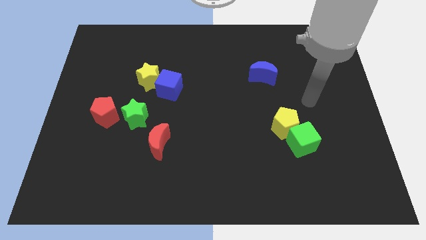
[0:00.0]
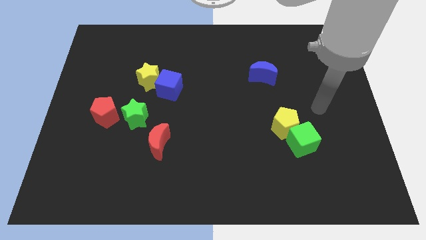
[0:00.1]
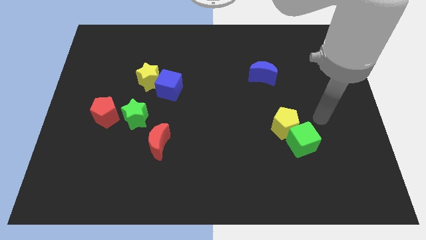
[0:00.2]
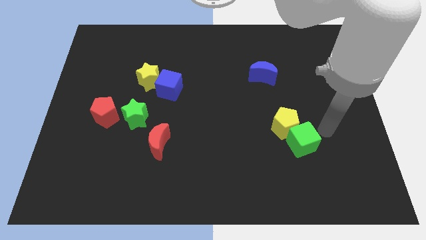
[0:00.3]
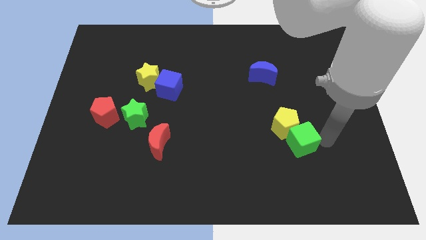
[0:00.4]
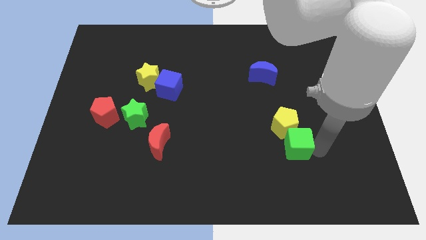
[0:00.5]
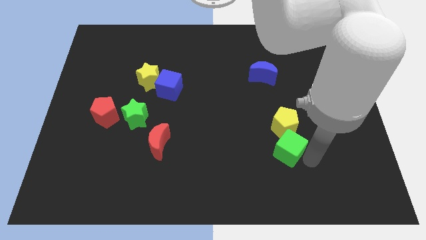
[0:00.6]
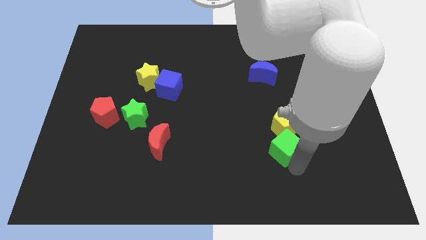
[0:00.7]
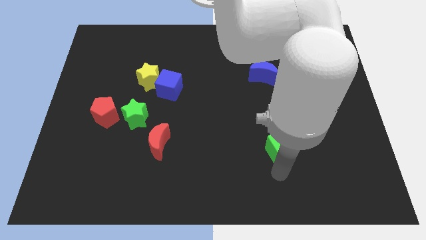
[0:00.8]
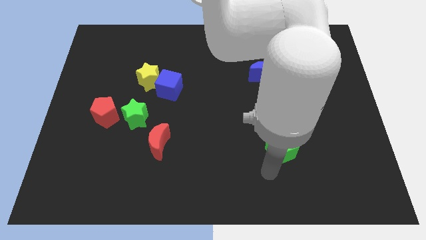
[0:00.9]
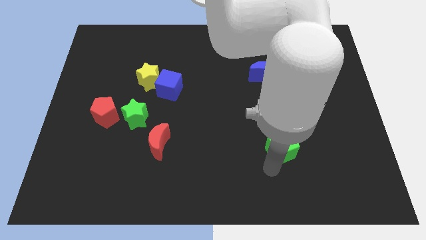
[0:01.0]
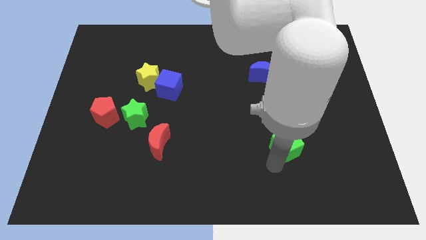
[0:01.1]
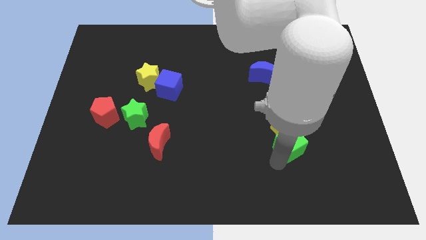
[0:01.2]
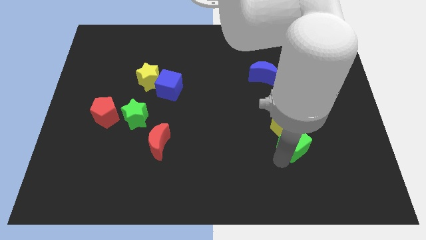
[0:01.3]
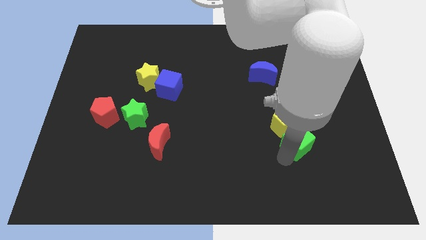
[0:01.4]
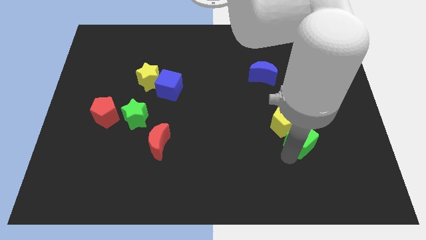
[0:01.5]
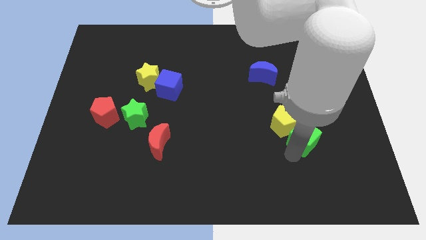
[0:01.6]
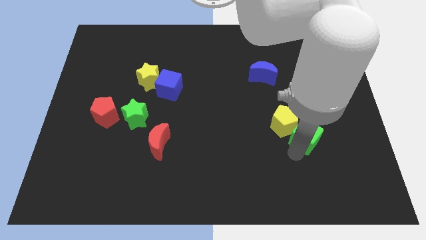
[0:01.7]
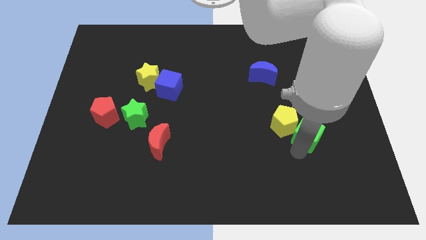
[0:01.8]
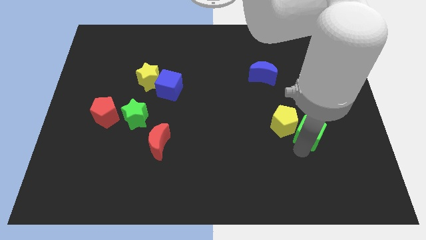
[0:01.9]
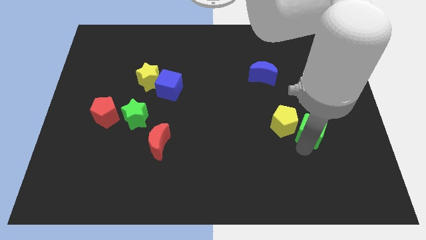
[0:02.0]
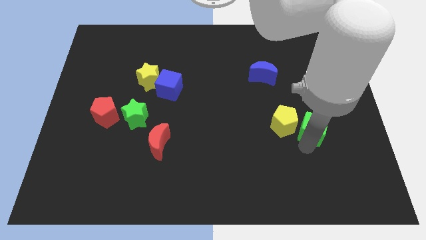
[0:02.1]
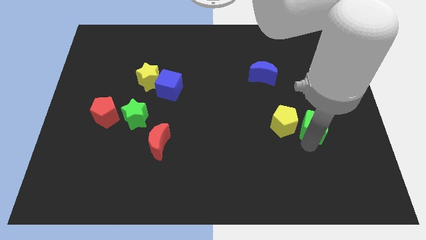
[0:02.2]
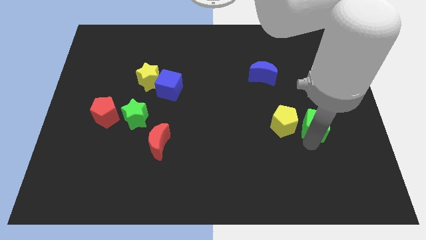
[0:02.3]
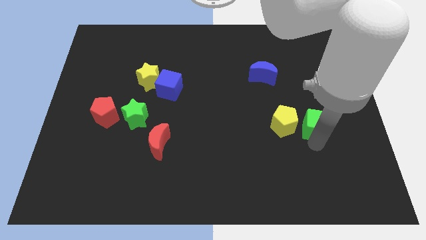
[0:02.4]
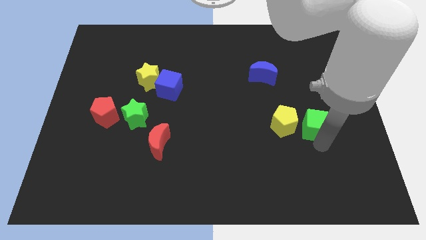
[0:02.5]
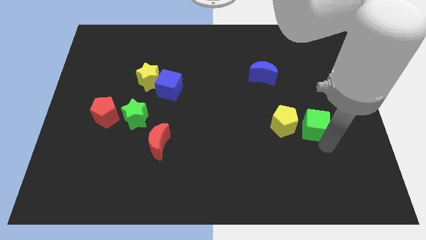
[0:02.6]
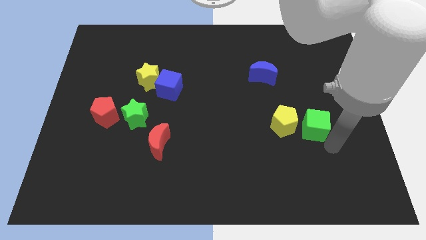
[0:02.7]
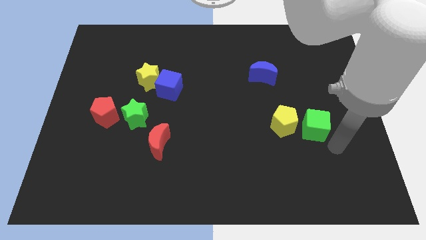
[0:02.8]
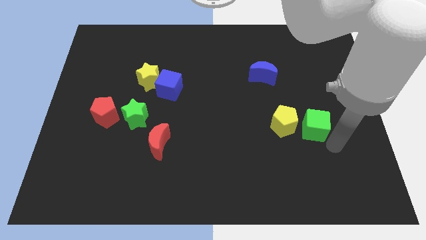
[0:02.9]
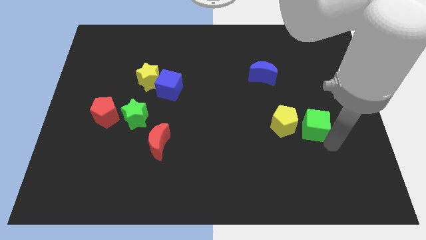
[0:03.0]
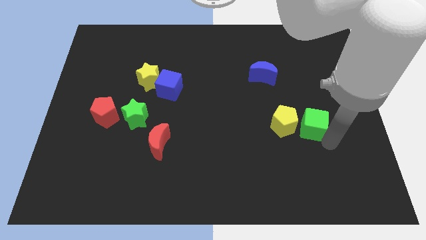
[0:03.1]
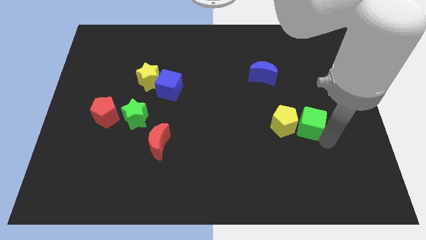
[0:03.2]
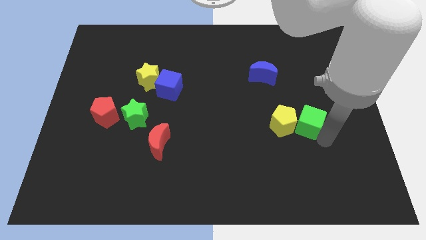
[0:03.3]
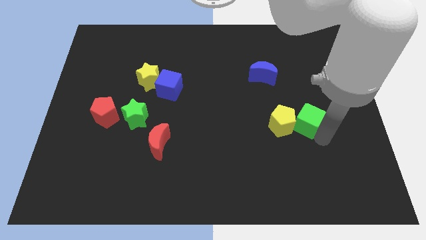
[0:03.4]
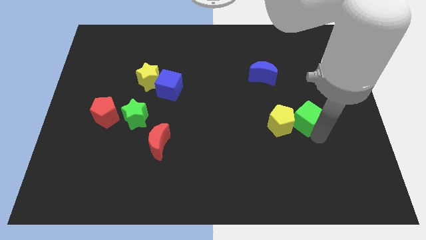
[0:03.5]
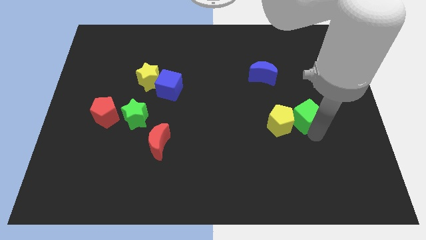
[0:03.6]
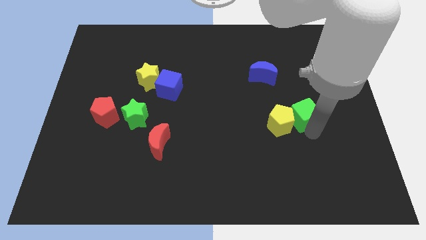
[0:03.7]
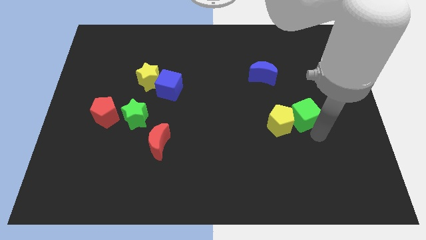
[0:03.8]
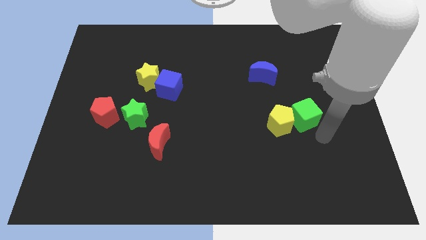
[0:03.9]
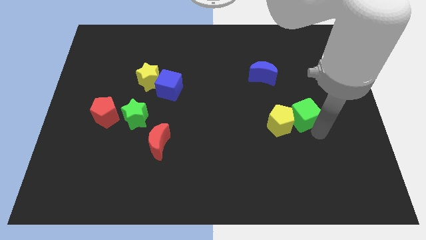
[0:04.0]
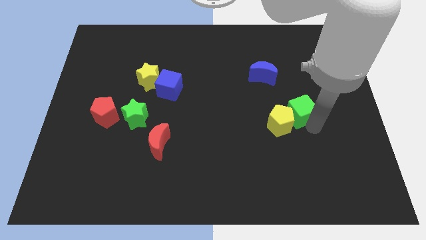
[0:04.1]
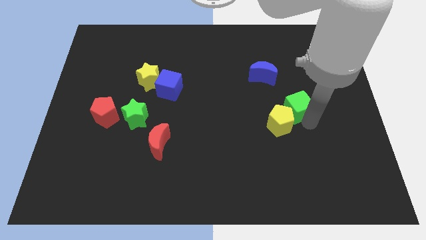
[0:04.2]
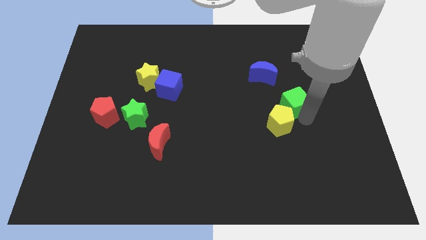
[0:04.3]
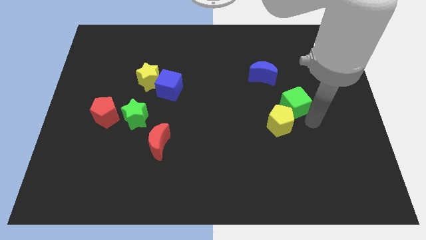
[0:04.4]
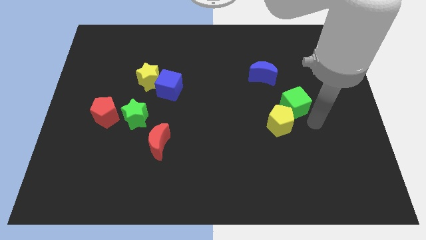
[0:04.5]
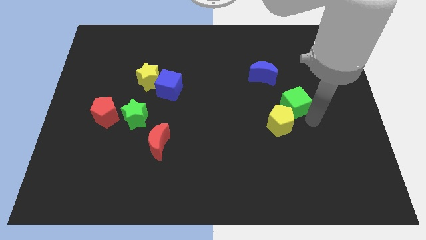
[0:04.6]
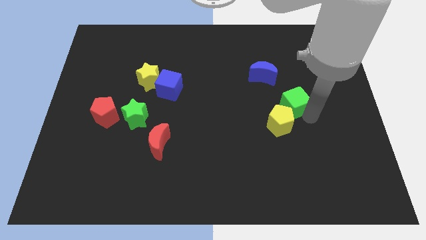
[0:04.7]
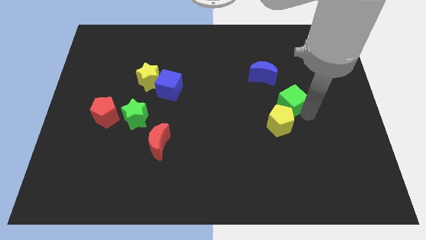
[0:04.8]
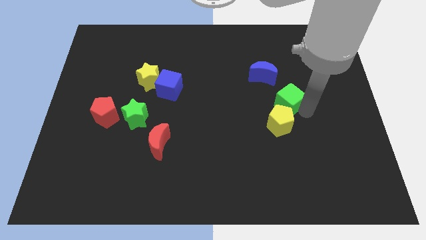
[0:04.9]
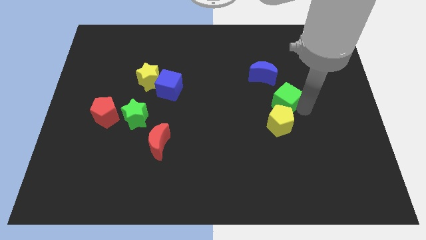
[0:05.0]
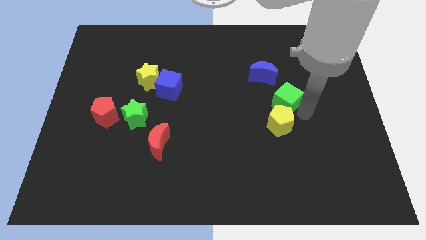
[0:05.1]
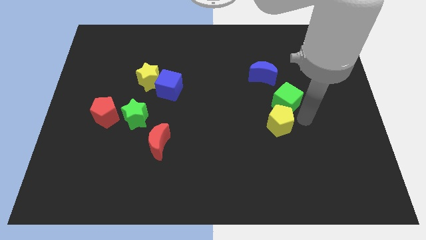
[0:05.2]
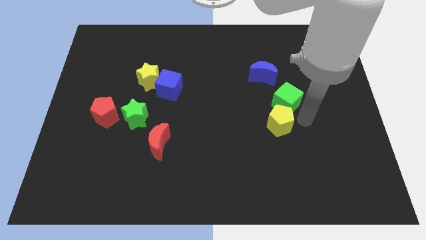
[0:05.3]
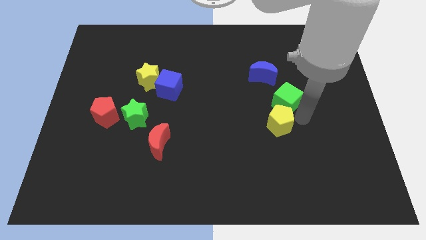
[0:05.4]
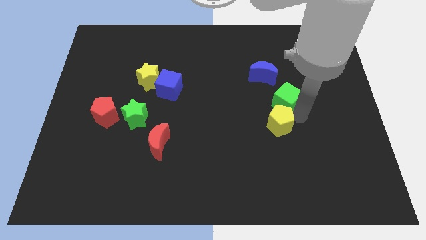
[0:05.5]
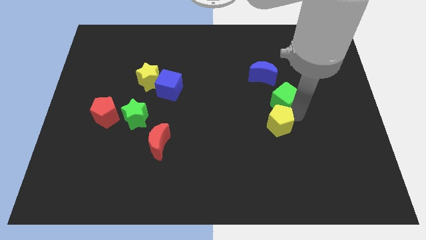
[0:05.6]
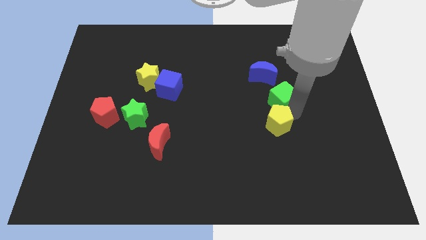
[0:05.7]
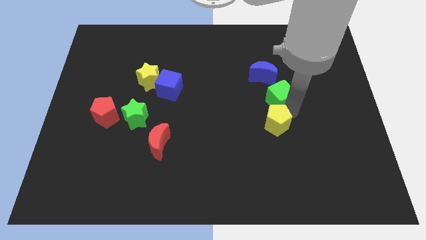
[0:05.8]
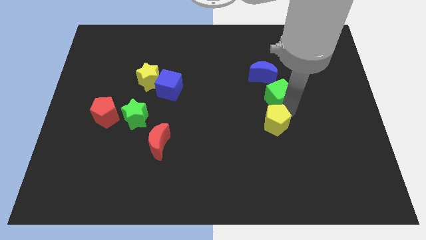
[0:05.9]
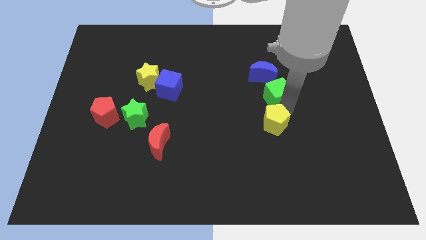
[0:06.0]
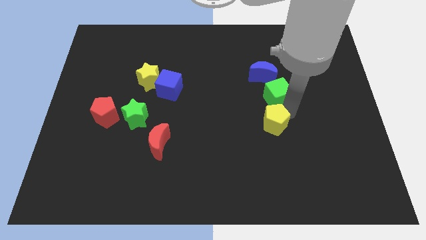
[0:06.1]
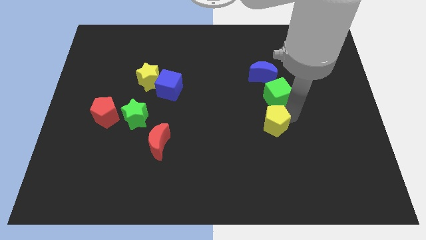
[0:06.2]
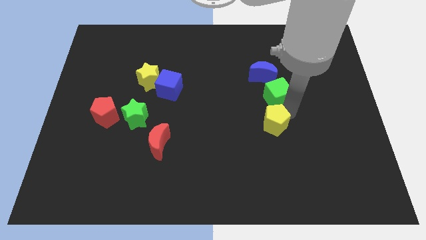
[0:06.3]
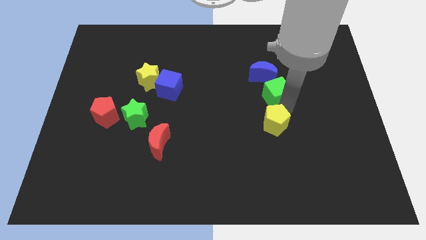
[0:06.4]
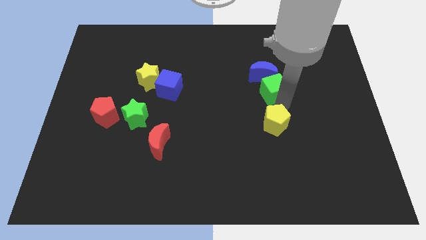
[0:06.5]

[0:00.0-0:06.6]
slide the green cube next to the blue moon

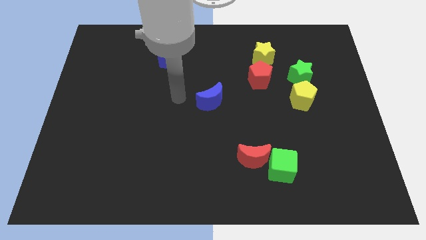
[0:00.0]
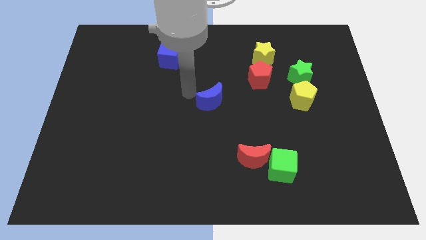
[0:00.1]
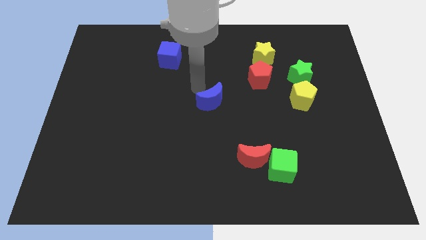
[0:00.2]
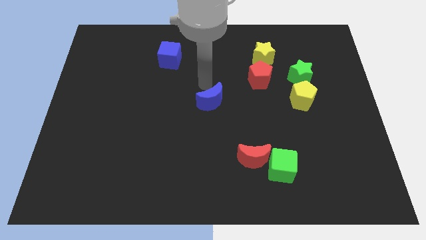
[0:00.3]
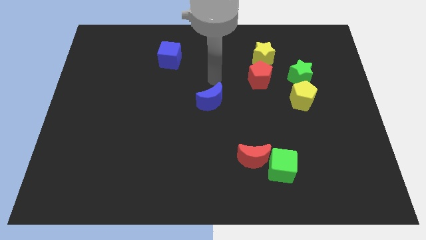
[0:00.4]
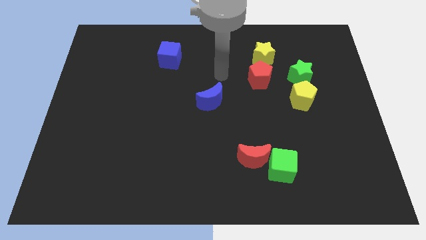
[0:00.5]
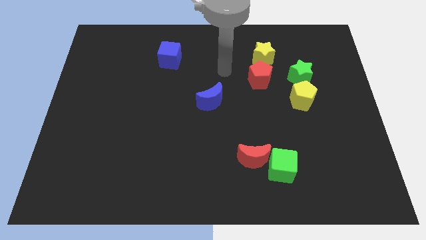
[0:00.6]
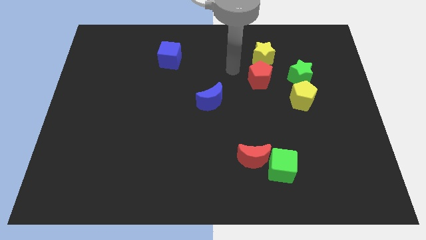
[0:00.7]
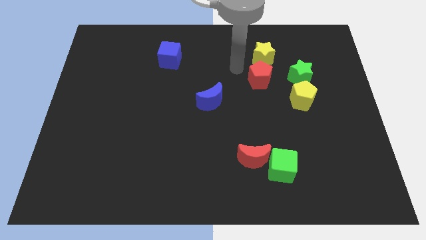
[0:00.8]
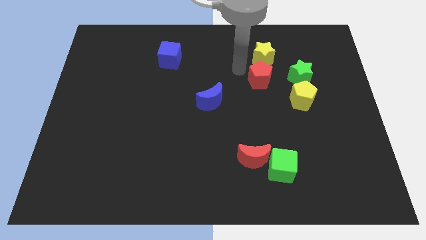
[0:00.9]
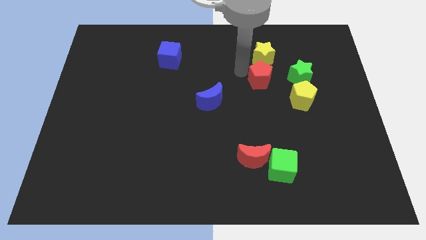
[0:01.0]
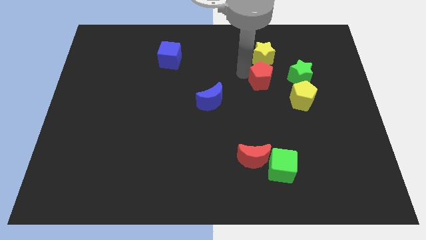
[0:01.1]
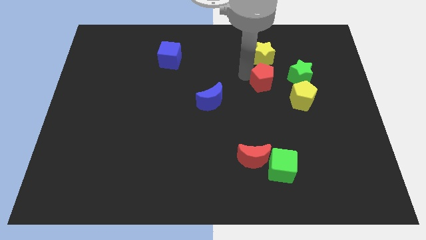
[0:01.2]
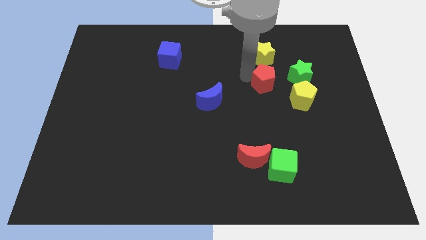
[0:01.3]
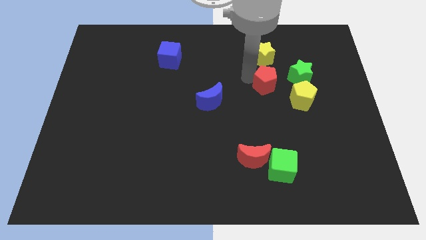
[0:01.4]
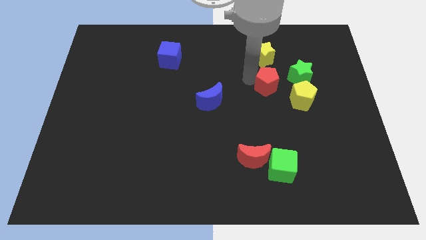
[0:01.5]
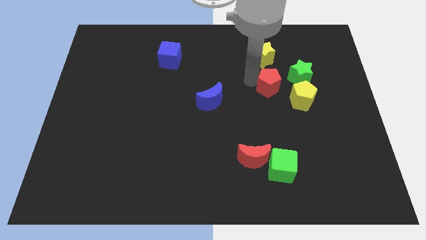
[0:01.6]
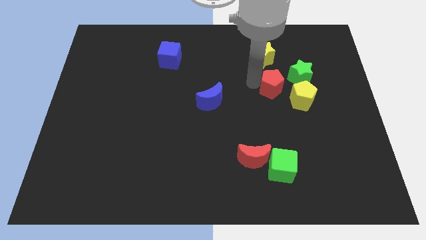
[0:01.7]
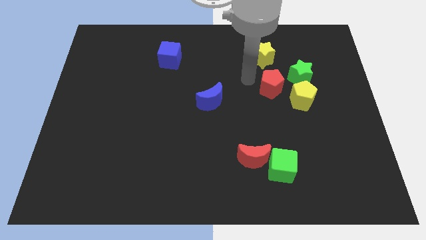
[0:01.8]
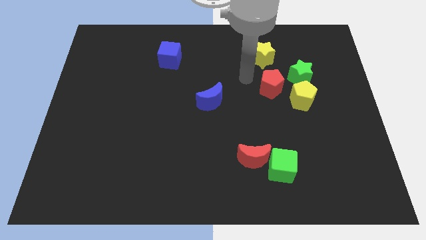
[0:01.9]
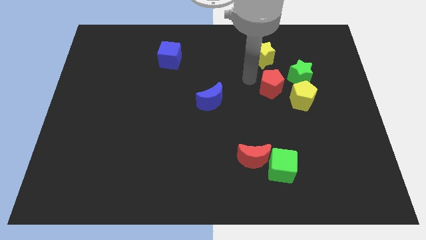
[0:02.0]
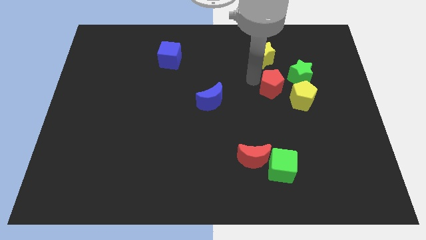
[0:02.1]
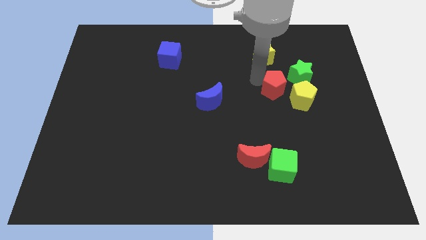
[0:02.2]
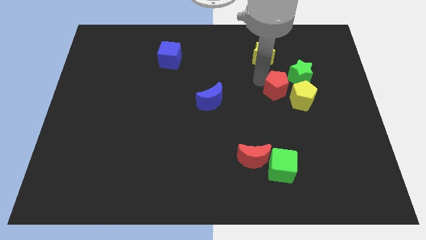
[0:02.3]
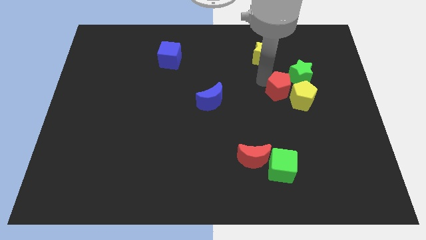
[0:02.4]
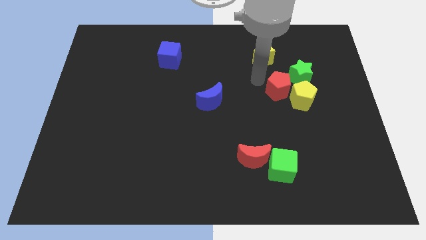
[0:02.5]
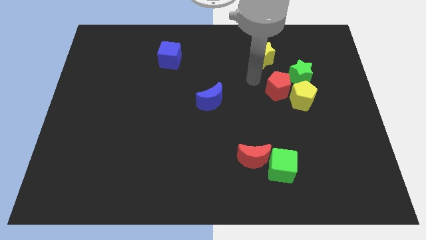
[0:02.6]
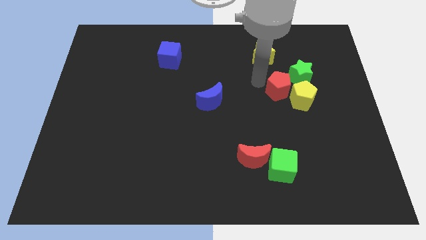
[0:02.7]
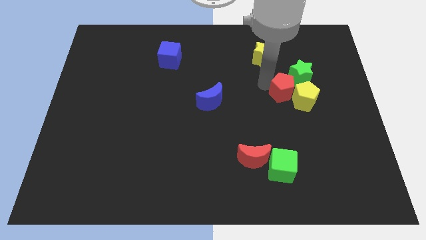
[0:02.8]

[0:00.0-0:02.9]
push the red pentagon next to the yellow pentagon
